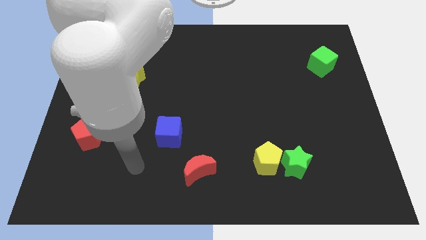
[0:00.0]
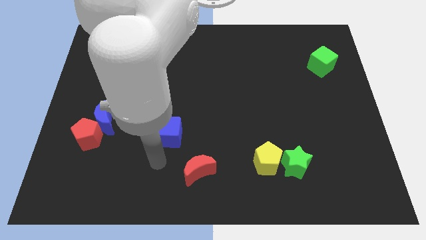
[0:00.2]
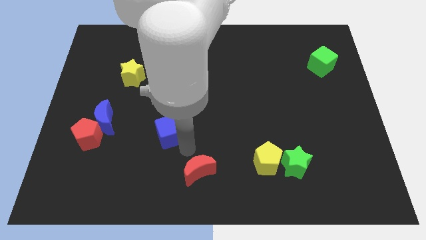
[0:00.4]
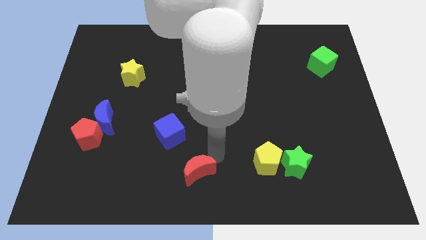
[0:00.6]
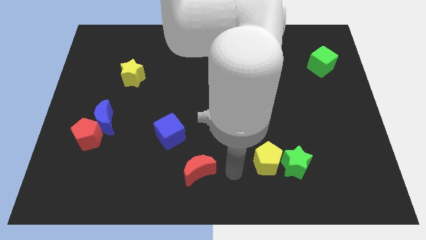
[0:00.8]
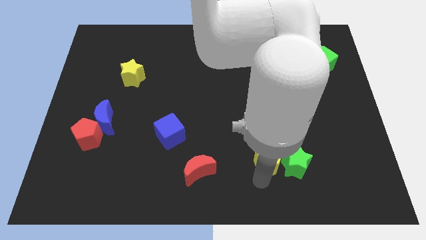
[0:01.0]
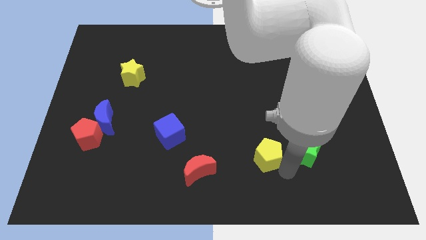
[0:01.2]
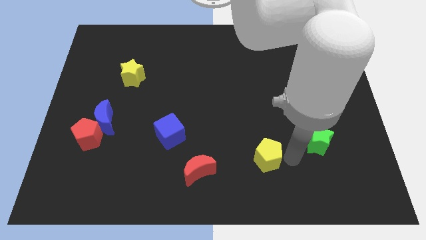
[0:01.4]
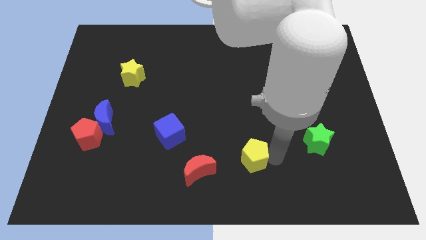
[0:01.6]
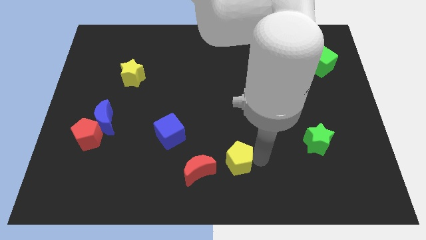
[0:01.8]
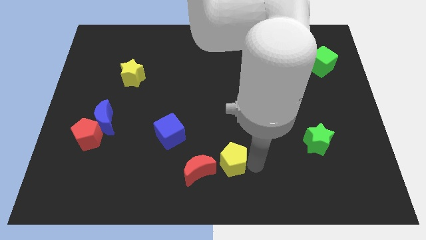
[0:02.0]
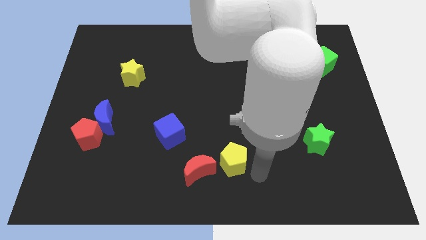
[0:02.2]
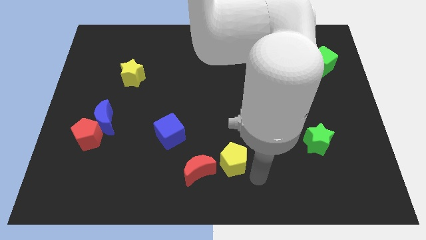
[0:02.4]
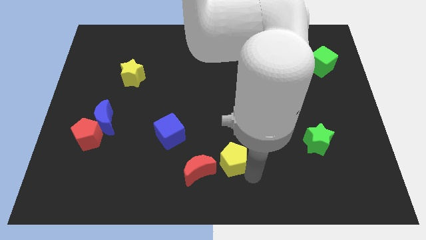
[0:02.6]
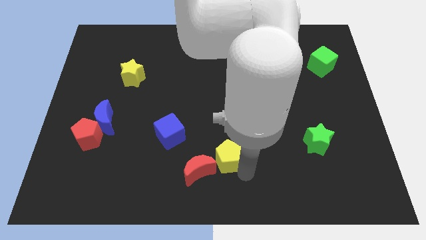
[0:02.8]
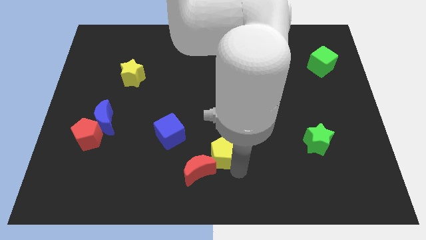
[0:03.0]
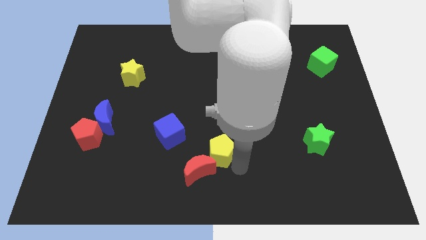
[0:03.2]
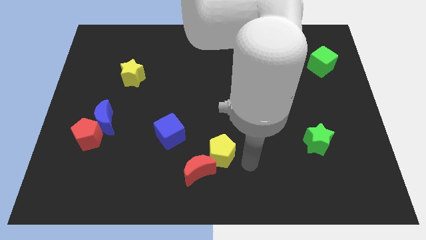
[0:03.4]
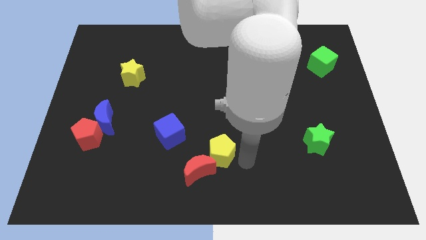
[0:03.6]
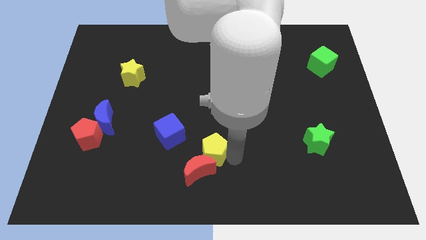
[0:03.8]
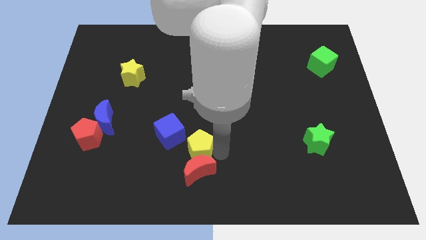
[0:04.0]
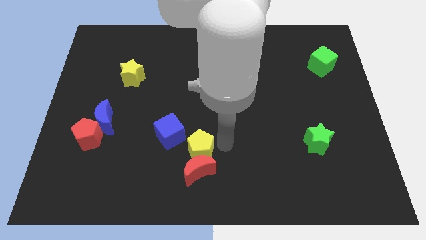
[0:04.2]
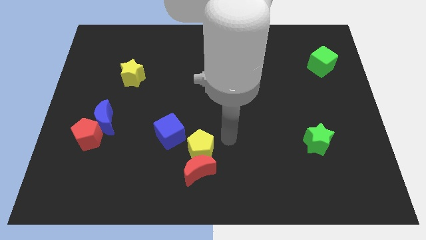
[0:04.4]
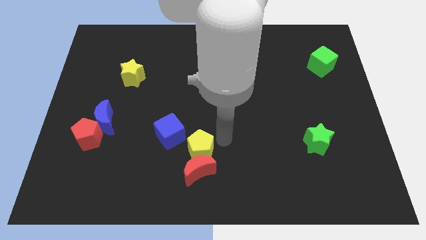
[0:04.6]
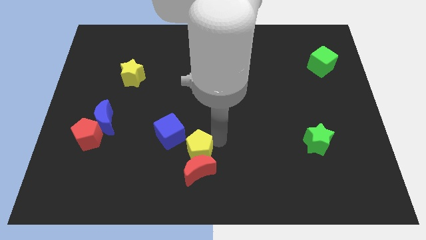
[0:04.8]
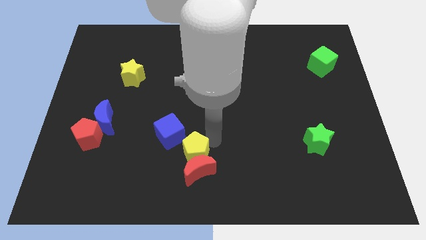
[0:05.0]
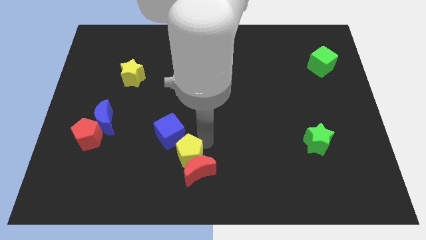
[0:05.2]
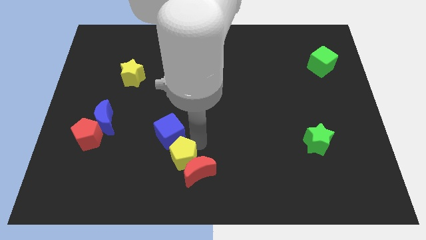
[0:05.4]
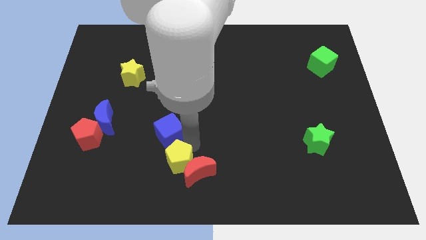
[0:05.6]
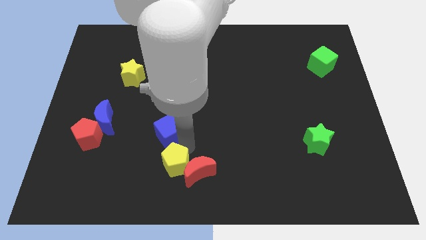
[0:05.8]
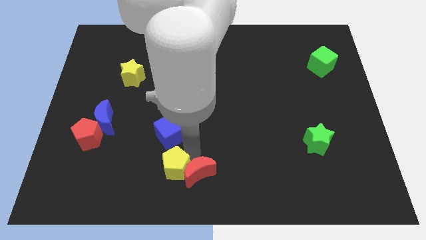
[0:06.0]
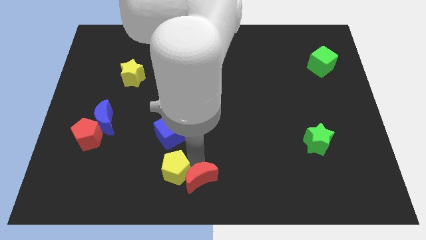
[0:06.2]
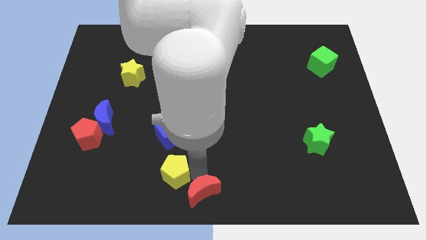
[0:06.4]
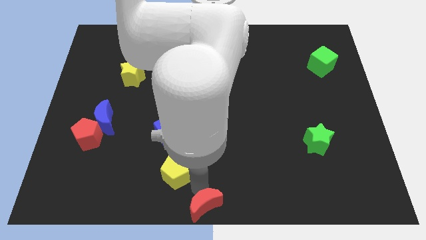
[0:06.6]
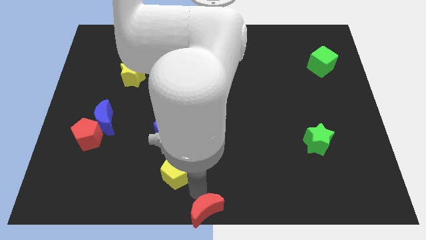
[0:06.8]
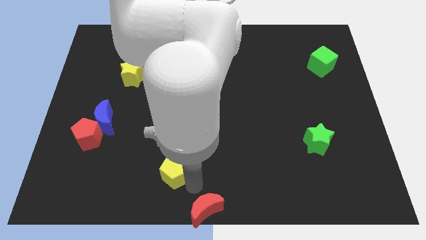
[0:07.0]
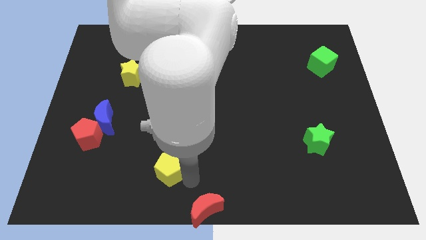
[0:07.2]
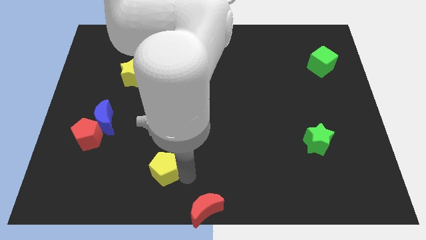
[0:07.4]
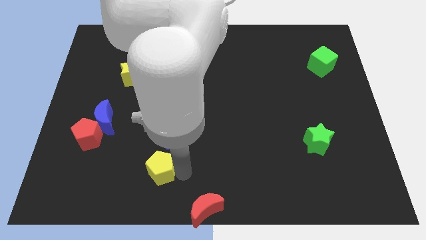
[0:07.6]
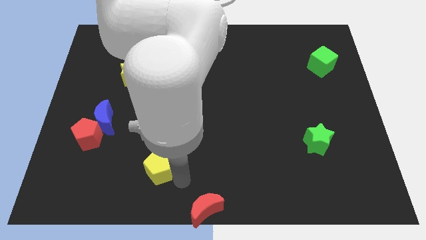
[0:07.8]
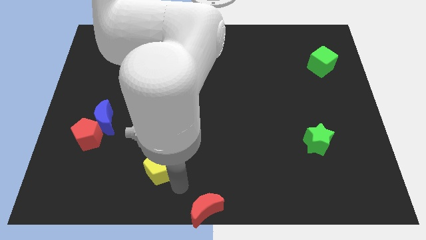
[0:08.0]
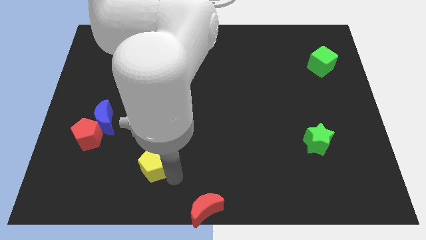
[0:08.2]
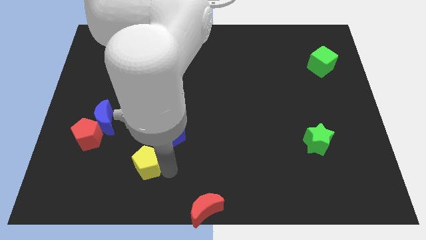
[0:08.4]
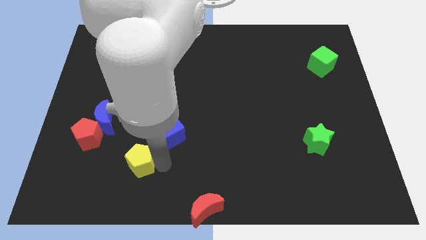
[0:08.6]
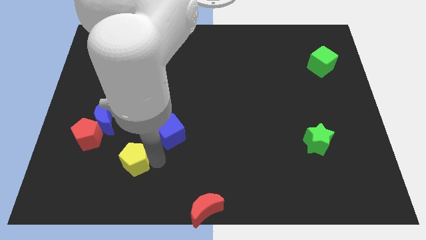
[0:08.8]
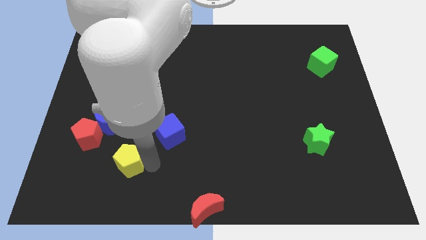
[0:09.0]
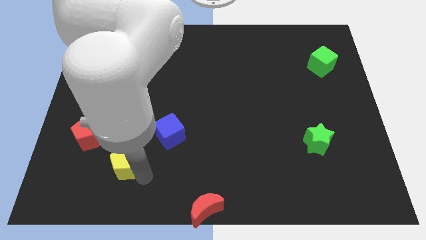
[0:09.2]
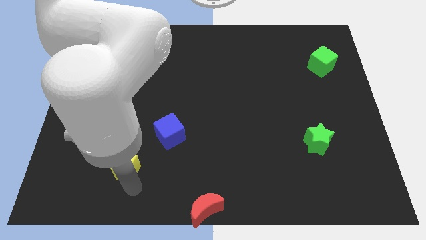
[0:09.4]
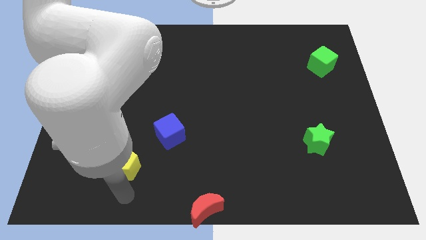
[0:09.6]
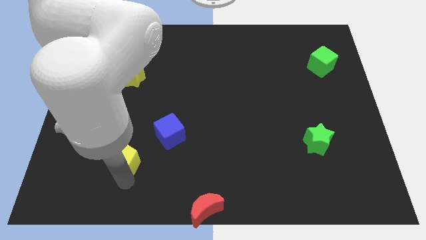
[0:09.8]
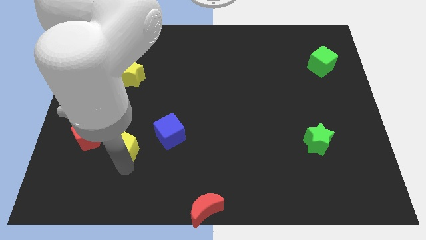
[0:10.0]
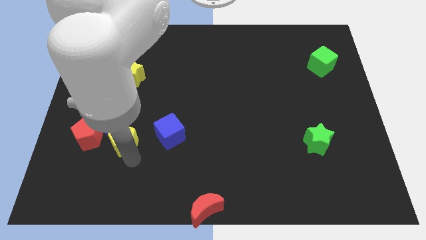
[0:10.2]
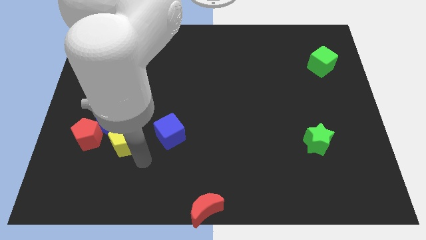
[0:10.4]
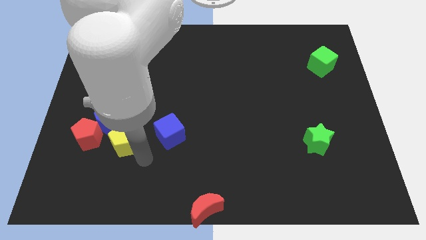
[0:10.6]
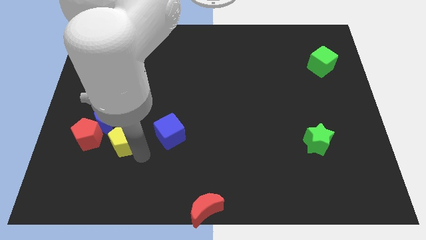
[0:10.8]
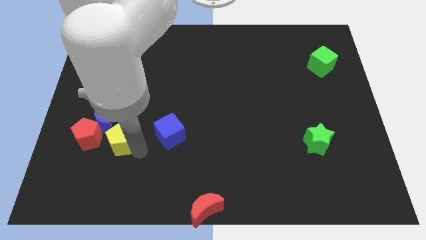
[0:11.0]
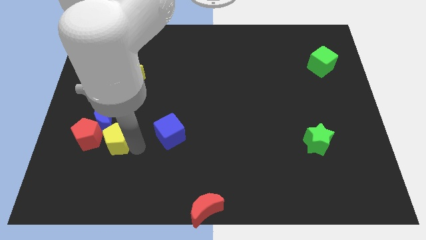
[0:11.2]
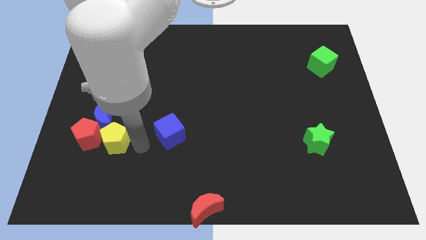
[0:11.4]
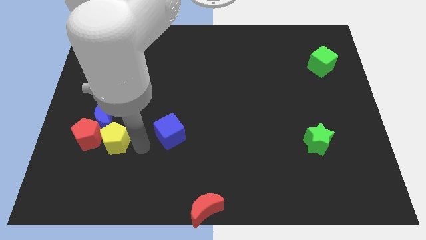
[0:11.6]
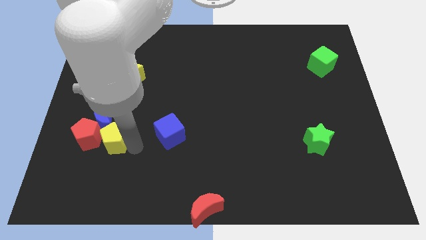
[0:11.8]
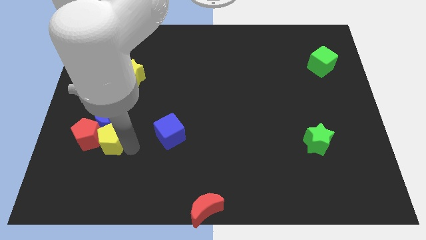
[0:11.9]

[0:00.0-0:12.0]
move the yellow pentagon towards the red pentagon
